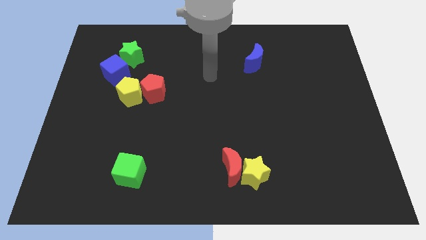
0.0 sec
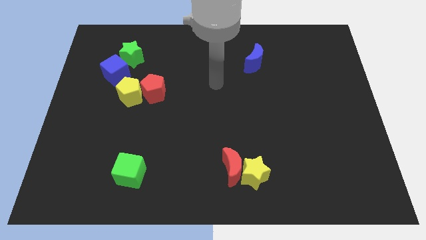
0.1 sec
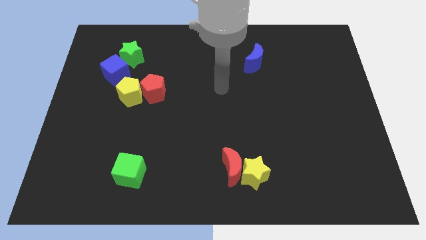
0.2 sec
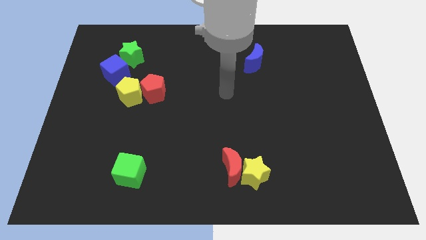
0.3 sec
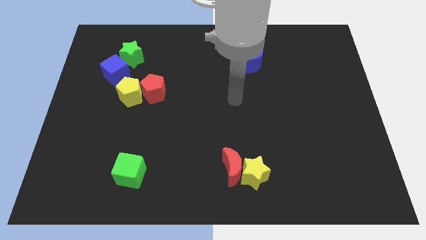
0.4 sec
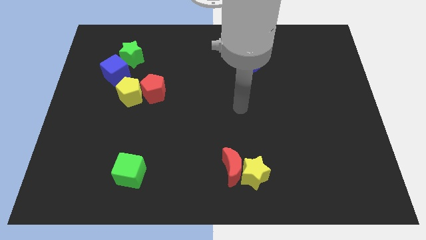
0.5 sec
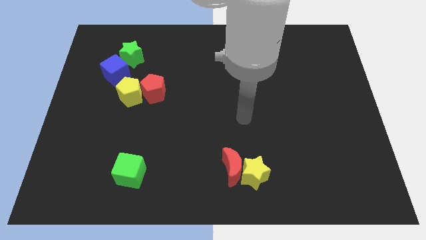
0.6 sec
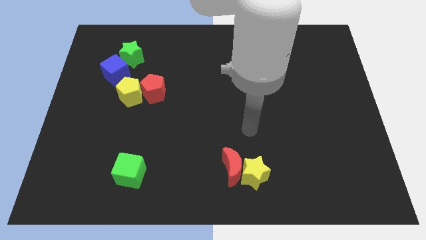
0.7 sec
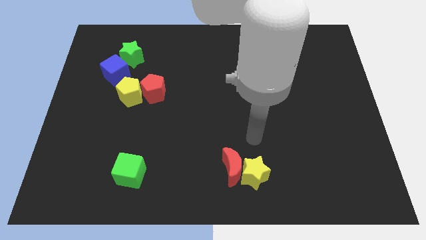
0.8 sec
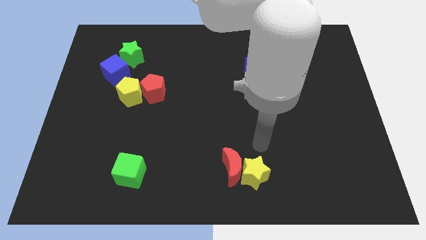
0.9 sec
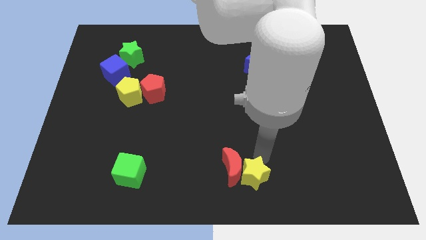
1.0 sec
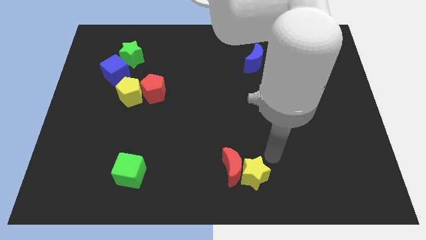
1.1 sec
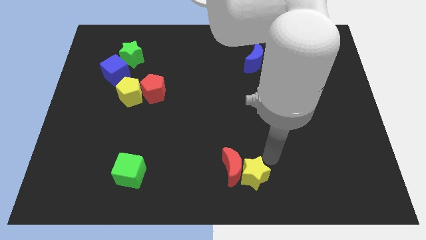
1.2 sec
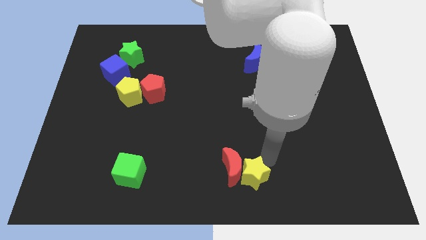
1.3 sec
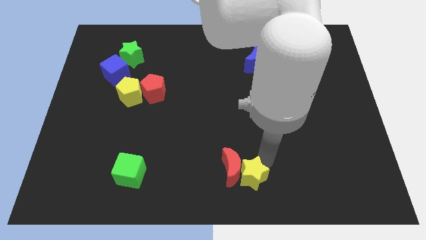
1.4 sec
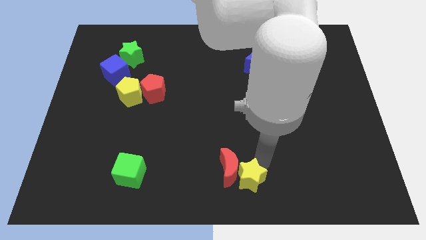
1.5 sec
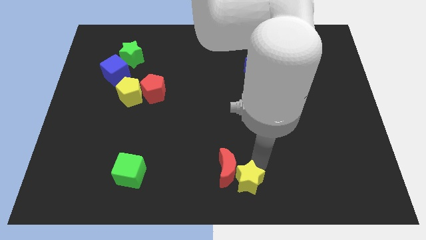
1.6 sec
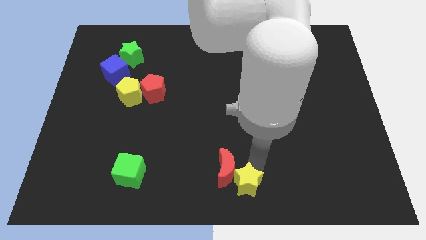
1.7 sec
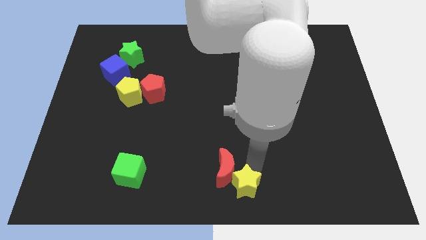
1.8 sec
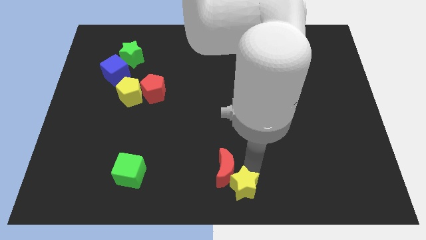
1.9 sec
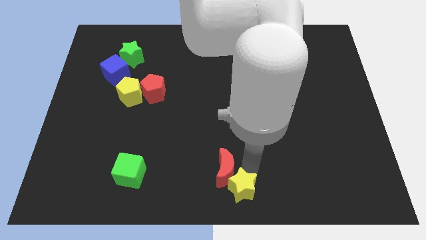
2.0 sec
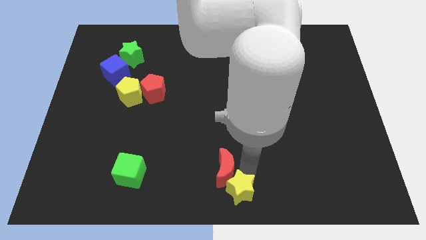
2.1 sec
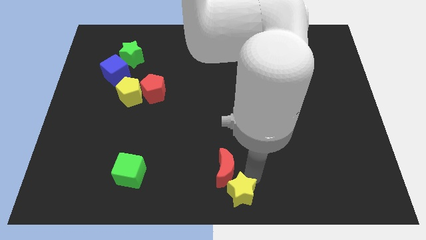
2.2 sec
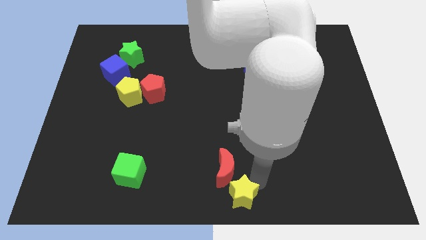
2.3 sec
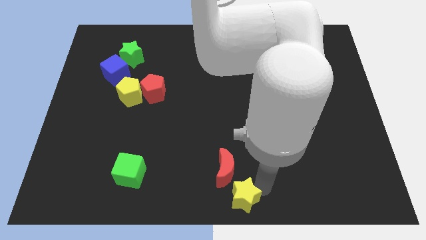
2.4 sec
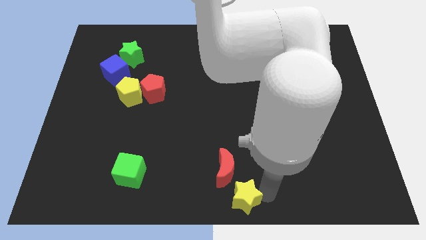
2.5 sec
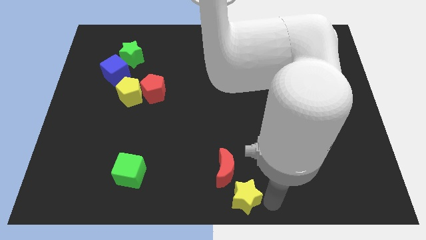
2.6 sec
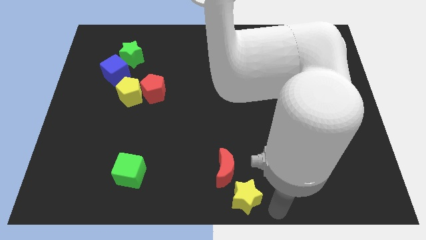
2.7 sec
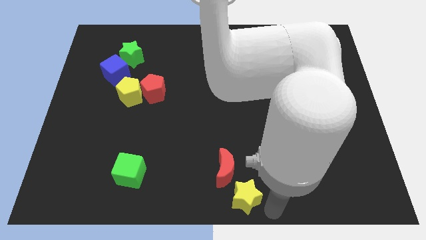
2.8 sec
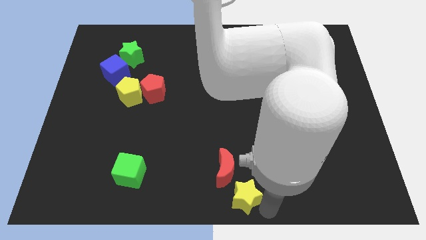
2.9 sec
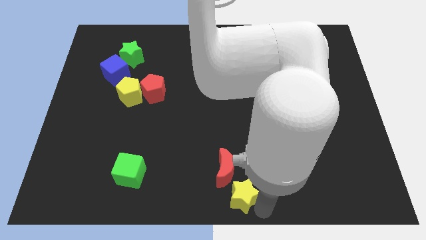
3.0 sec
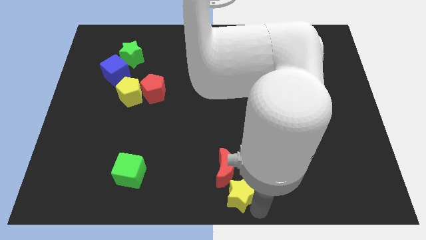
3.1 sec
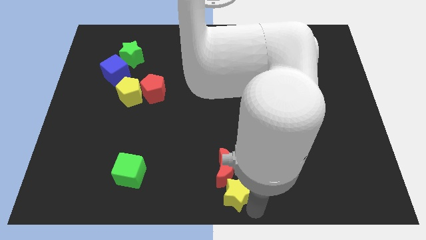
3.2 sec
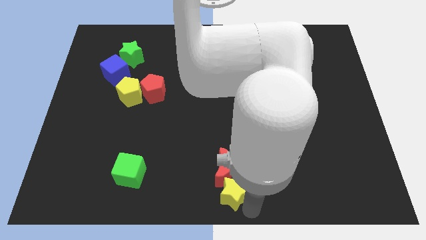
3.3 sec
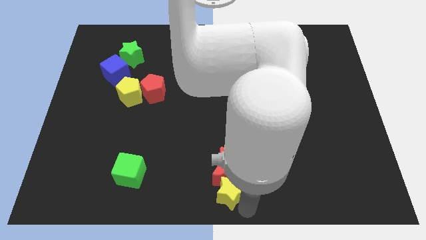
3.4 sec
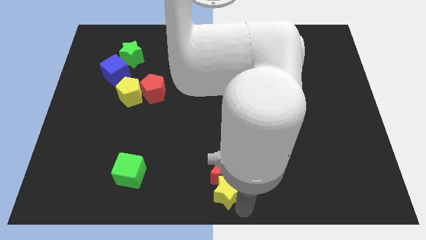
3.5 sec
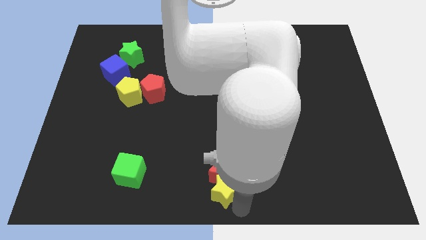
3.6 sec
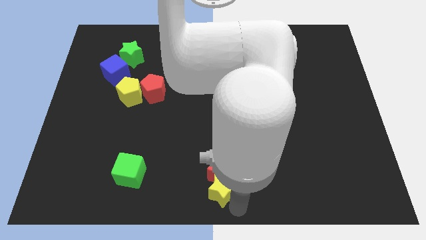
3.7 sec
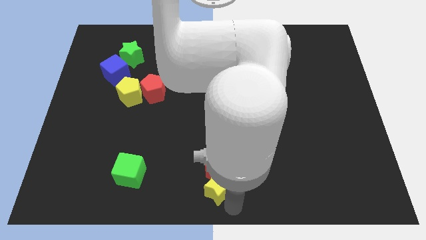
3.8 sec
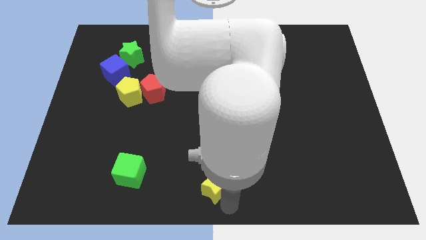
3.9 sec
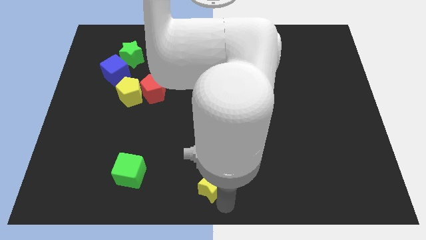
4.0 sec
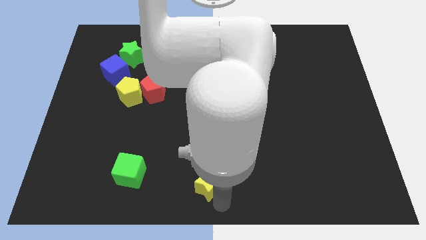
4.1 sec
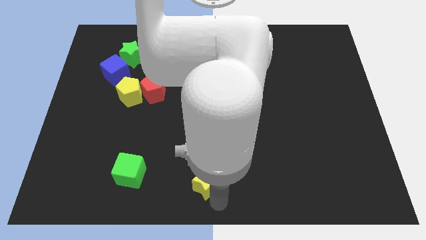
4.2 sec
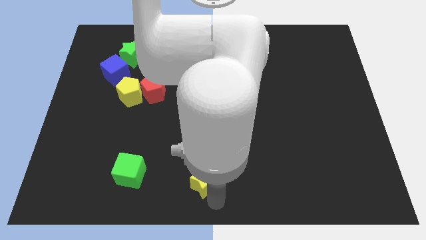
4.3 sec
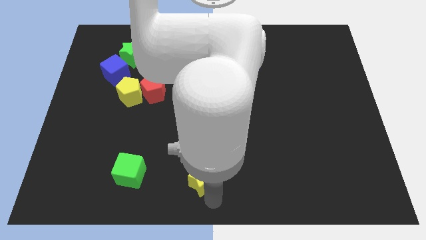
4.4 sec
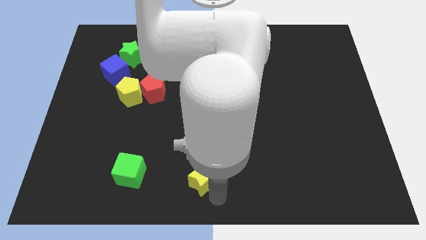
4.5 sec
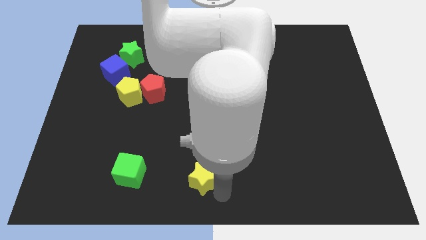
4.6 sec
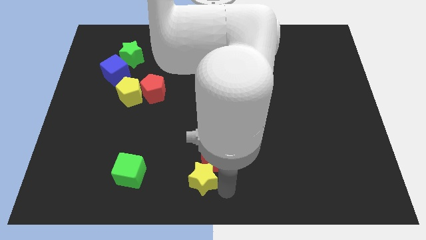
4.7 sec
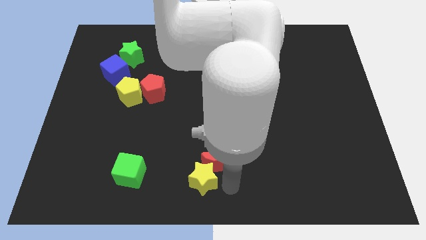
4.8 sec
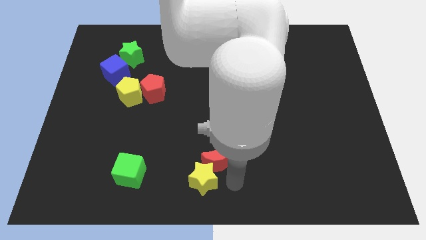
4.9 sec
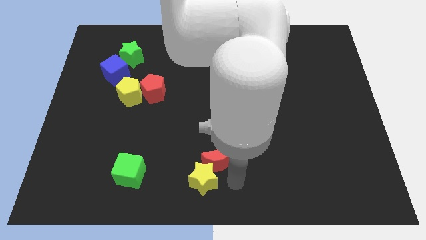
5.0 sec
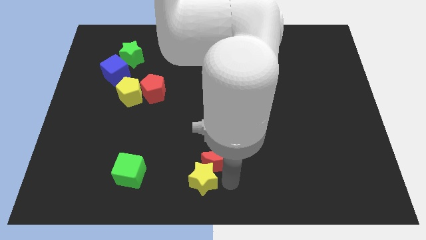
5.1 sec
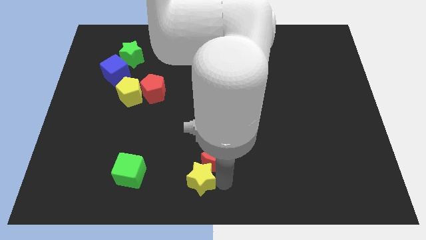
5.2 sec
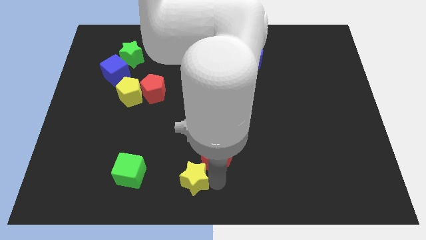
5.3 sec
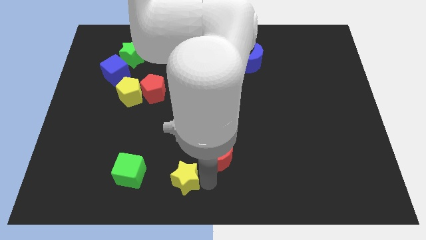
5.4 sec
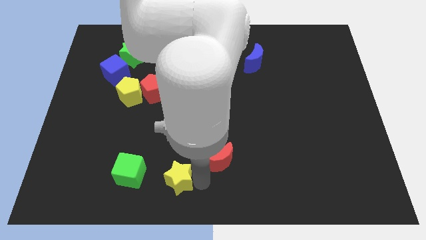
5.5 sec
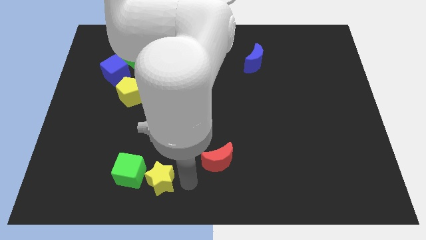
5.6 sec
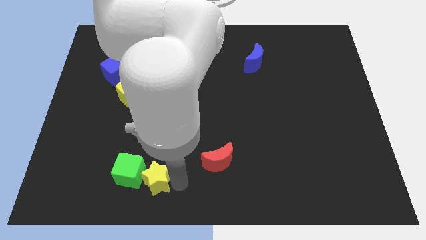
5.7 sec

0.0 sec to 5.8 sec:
push the yellow star close to the green cube

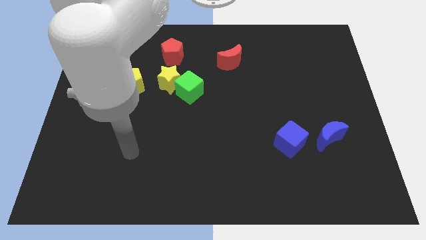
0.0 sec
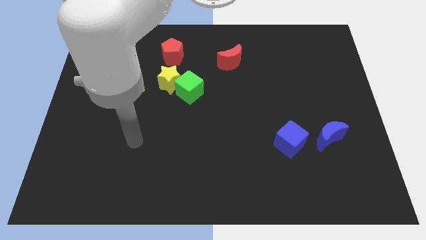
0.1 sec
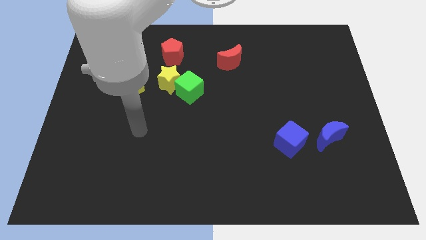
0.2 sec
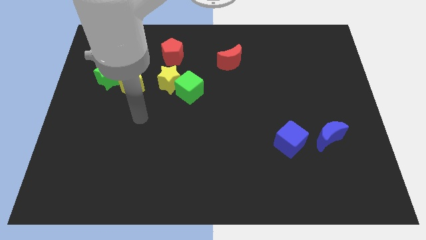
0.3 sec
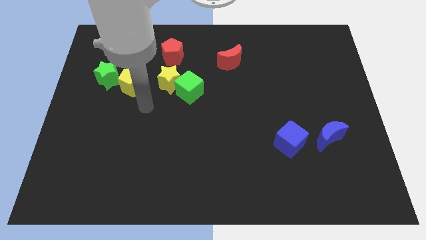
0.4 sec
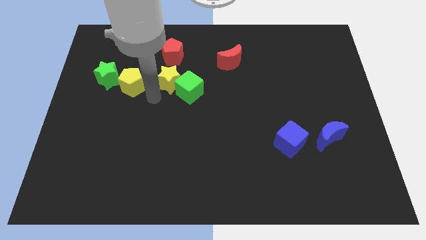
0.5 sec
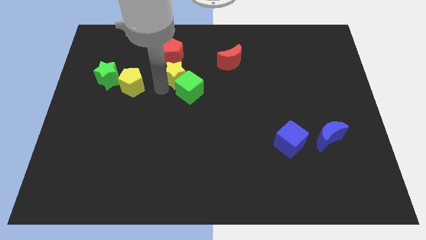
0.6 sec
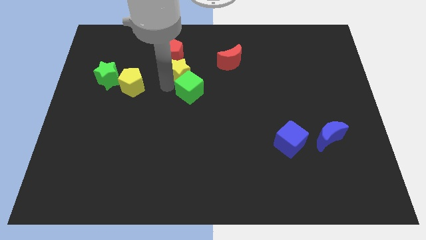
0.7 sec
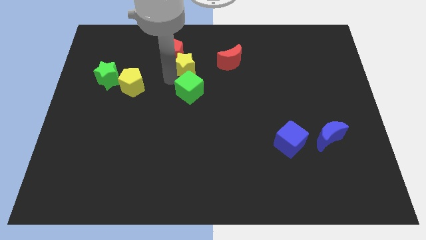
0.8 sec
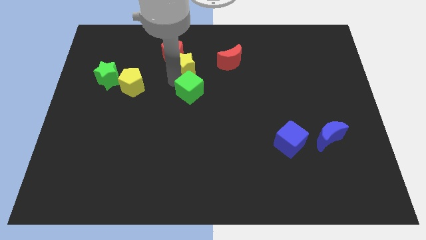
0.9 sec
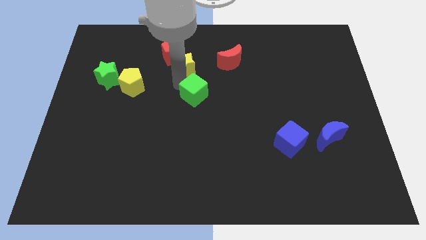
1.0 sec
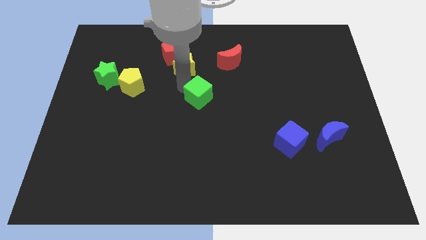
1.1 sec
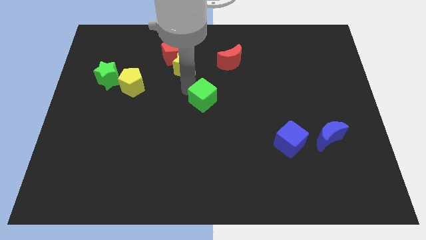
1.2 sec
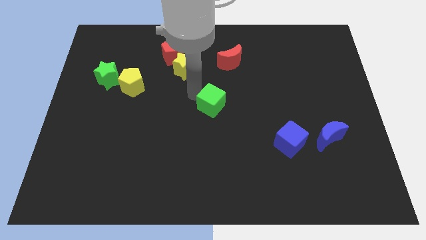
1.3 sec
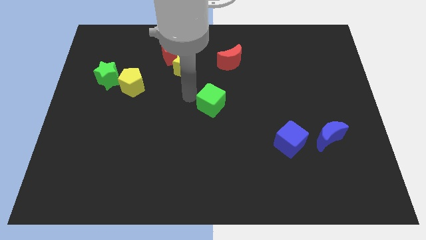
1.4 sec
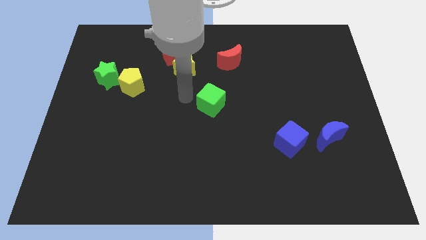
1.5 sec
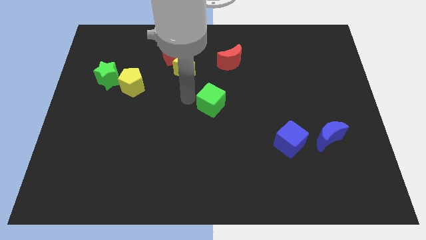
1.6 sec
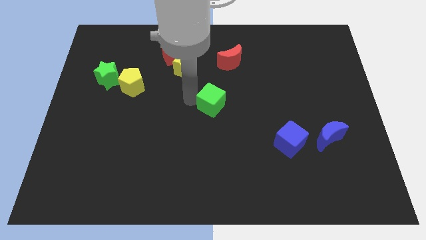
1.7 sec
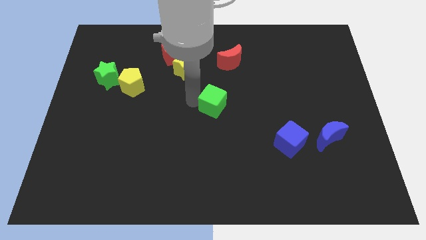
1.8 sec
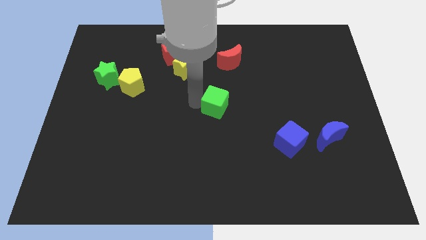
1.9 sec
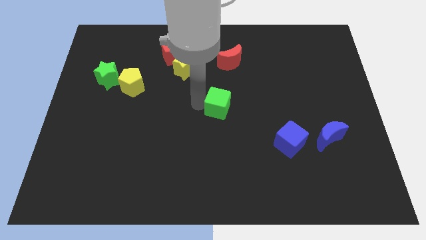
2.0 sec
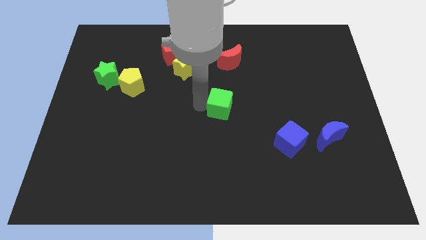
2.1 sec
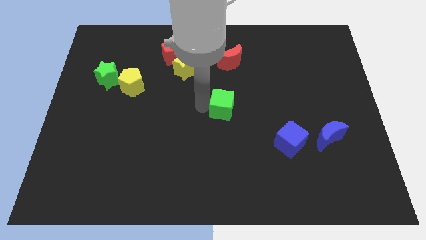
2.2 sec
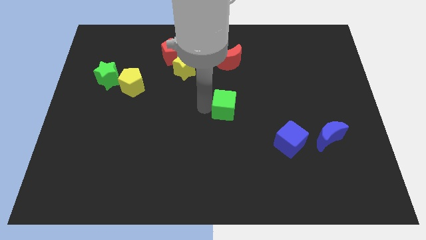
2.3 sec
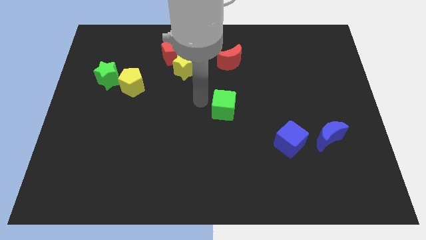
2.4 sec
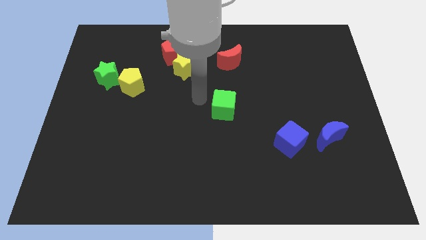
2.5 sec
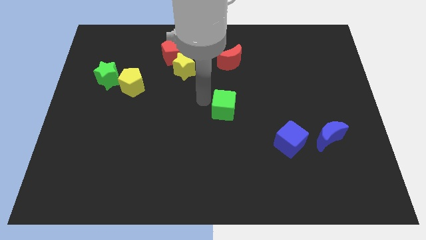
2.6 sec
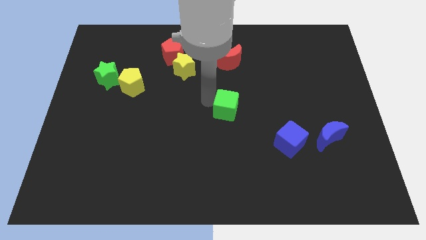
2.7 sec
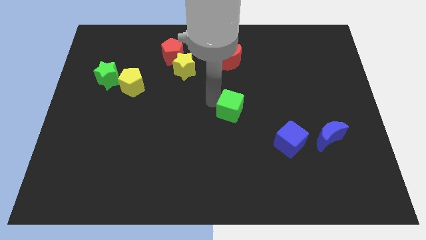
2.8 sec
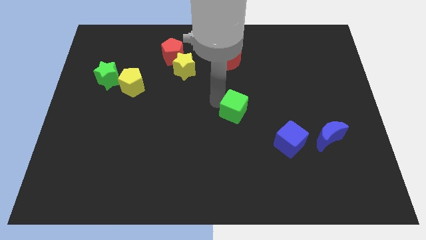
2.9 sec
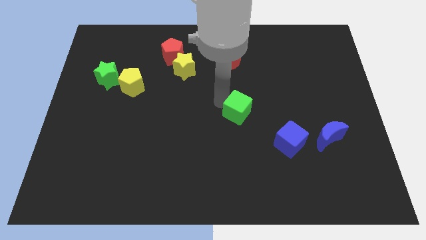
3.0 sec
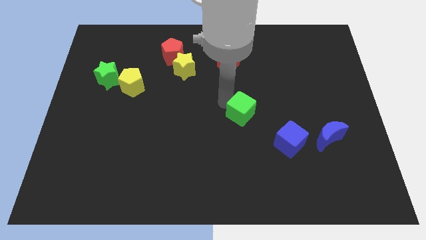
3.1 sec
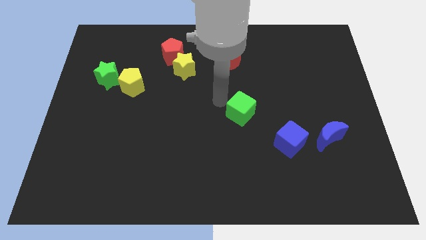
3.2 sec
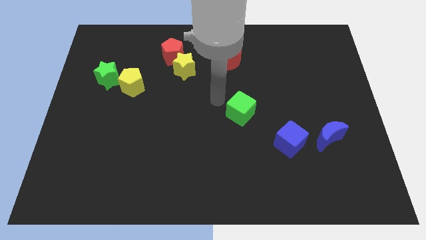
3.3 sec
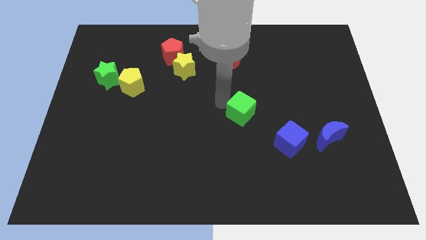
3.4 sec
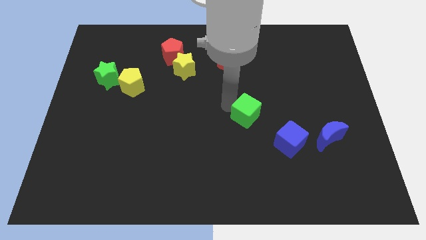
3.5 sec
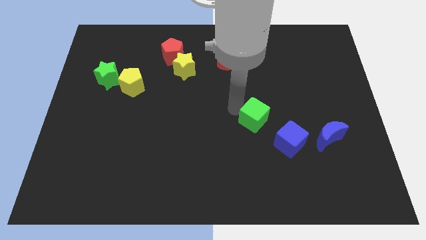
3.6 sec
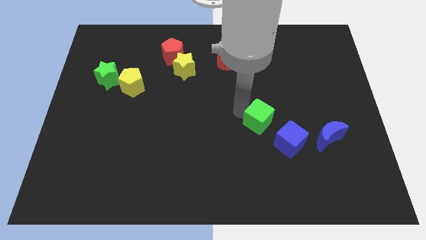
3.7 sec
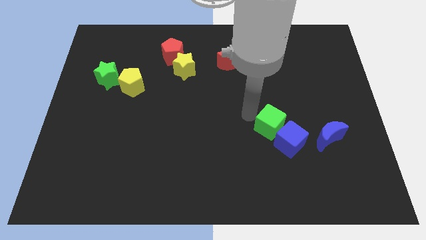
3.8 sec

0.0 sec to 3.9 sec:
slide the green cube next to the blue cube
